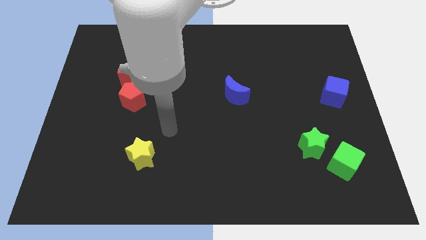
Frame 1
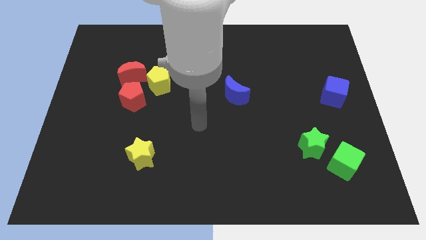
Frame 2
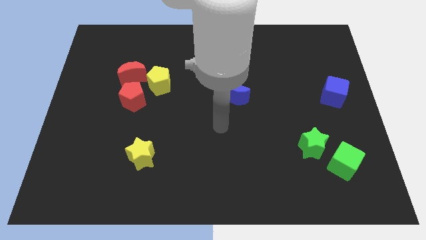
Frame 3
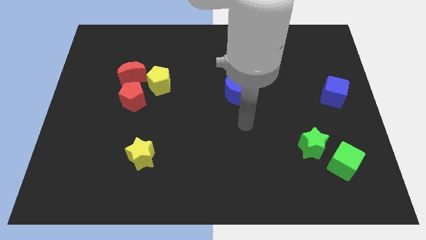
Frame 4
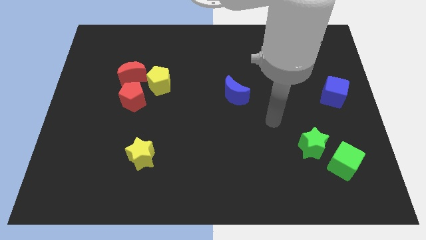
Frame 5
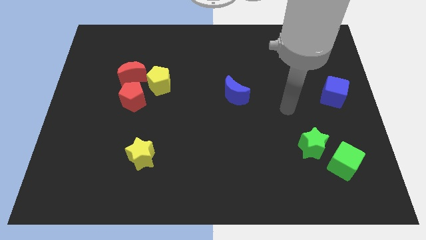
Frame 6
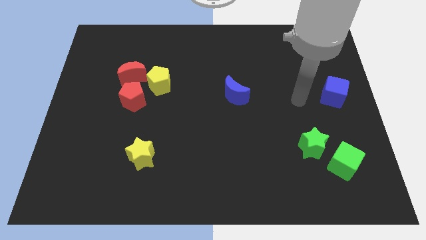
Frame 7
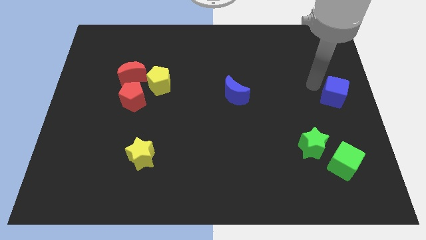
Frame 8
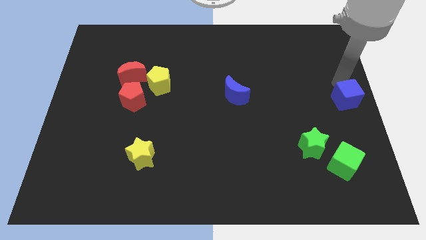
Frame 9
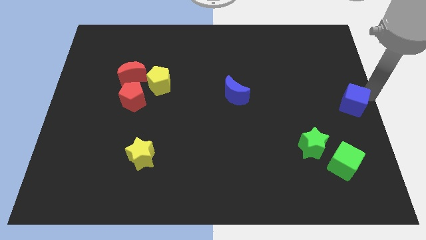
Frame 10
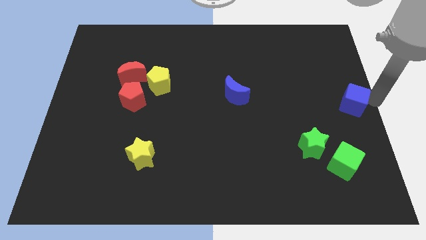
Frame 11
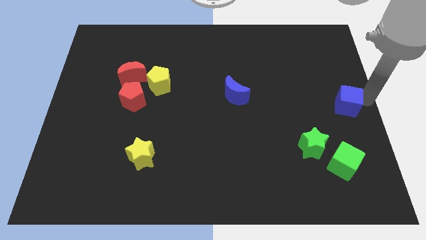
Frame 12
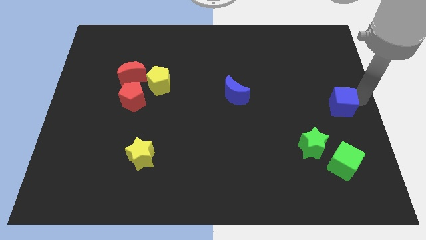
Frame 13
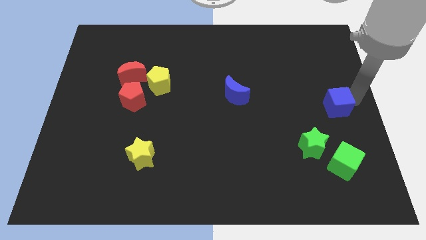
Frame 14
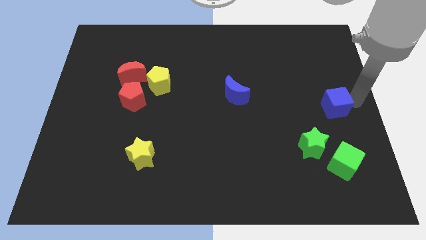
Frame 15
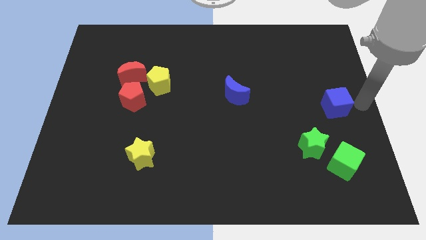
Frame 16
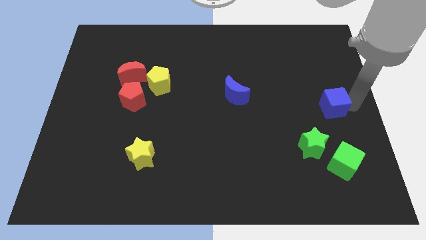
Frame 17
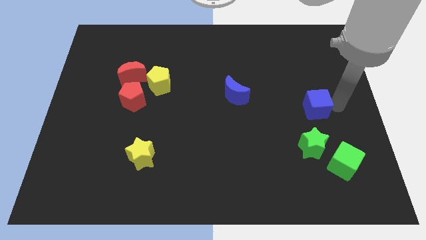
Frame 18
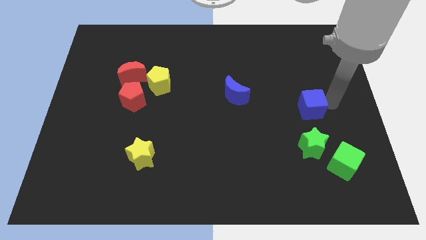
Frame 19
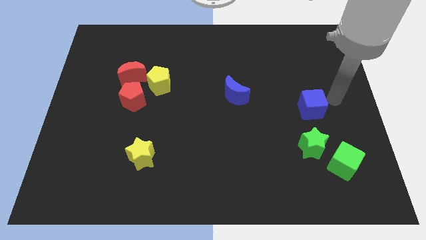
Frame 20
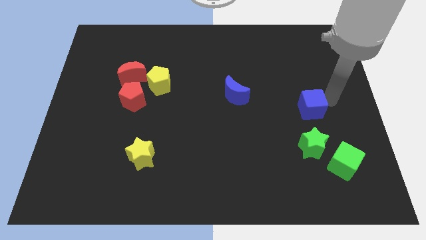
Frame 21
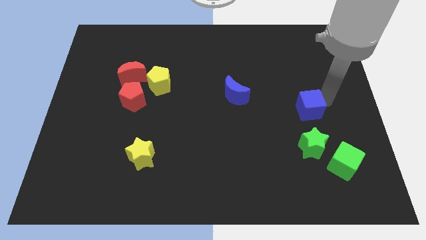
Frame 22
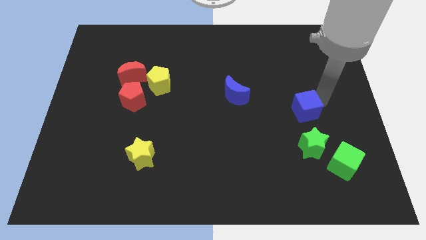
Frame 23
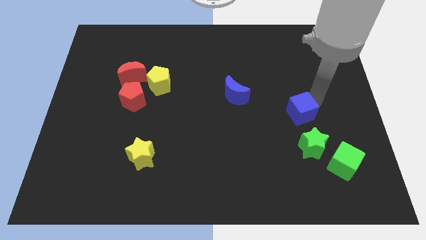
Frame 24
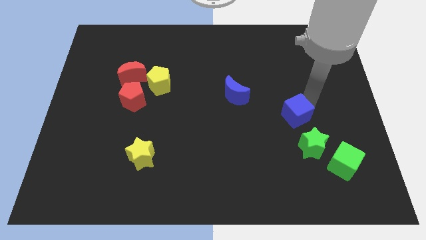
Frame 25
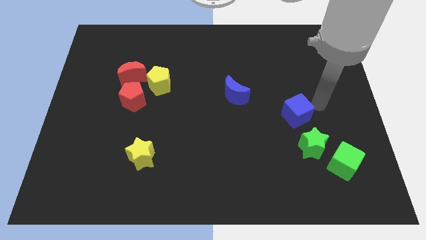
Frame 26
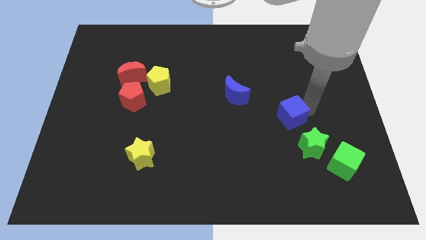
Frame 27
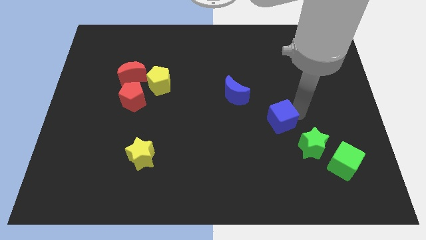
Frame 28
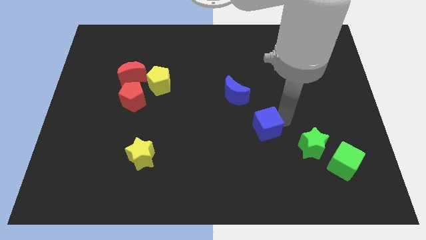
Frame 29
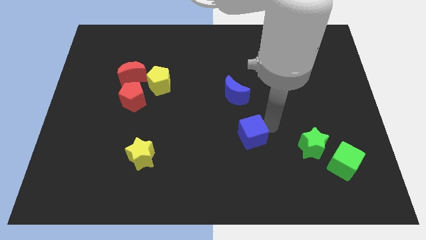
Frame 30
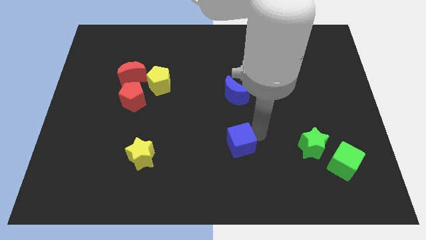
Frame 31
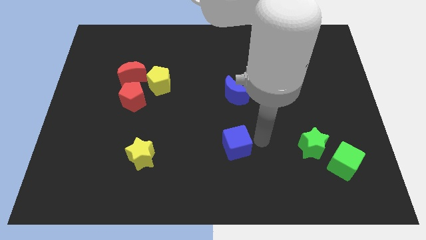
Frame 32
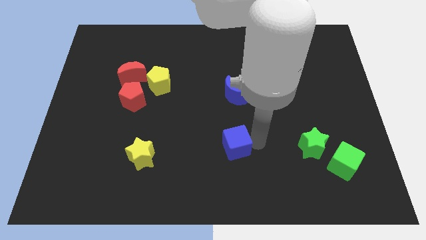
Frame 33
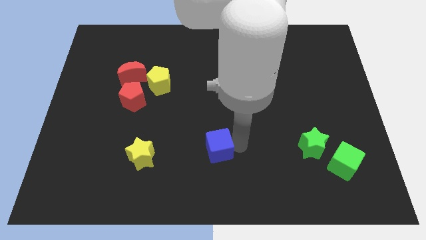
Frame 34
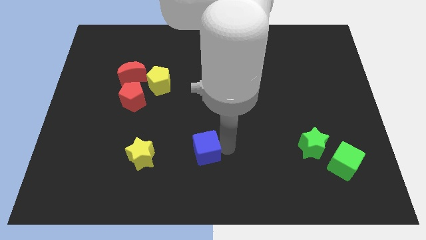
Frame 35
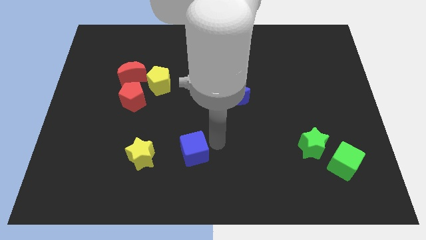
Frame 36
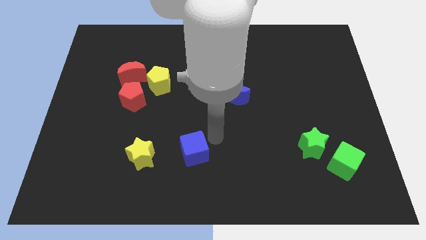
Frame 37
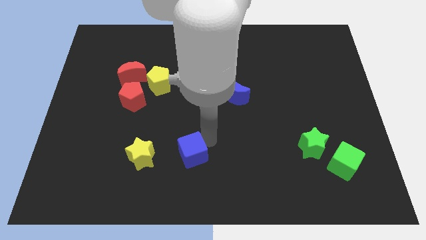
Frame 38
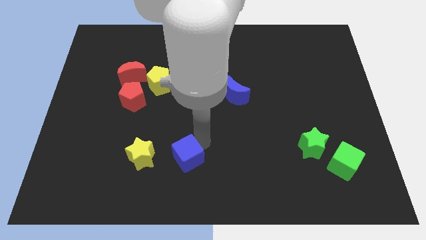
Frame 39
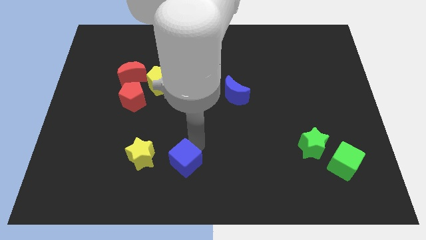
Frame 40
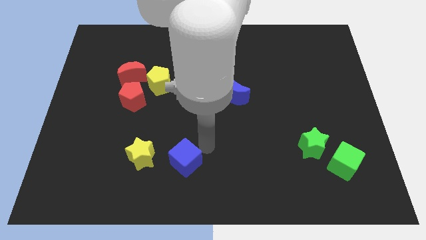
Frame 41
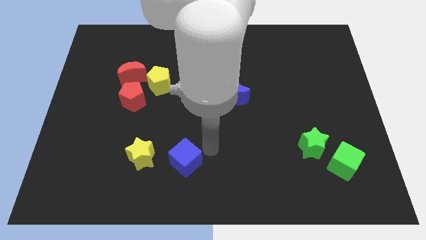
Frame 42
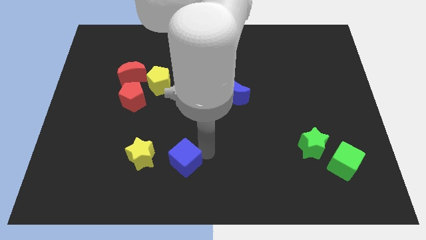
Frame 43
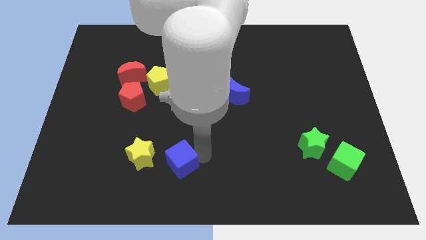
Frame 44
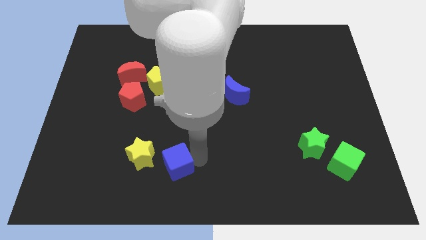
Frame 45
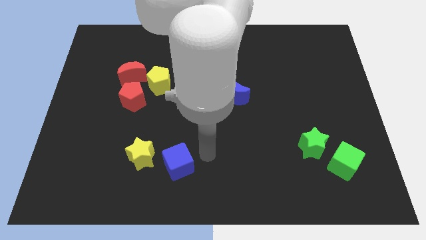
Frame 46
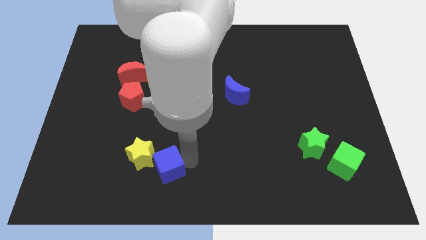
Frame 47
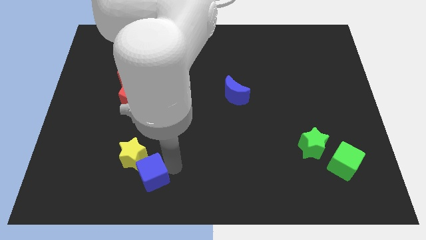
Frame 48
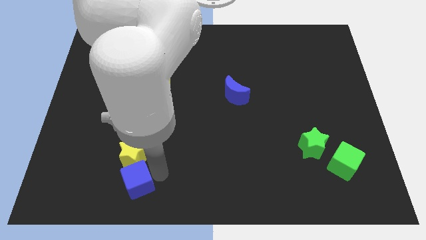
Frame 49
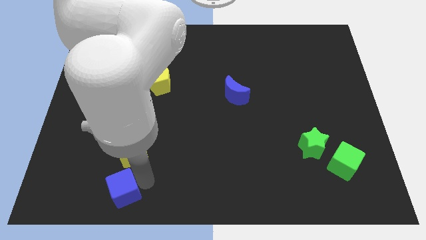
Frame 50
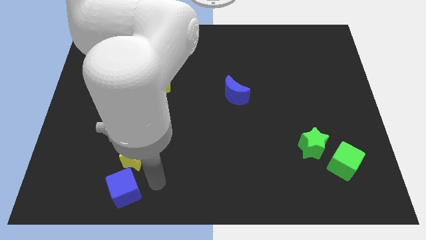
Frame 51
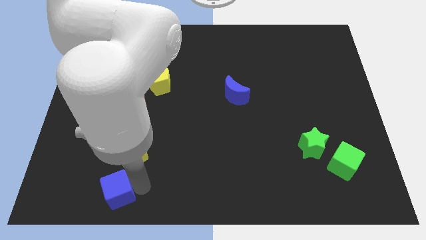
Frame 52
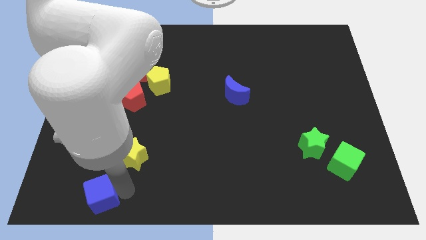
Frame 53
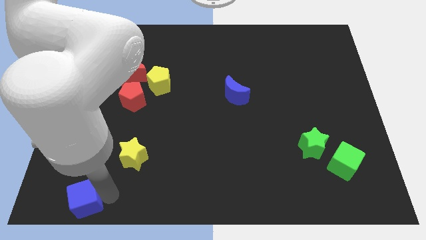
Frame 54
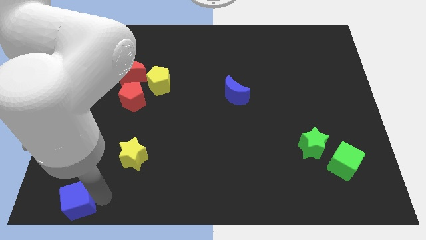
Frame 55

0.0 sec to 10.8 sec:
push the blue cube to the lower left corner
